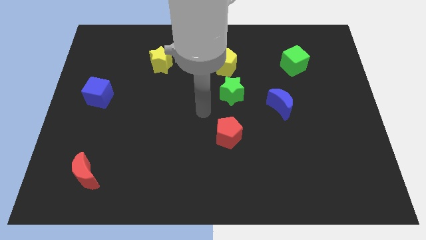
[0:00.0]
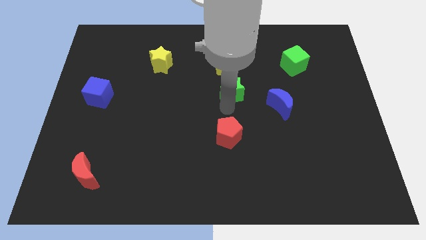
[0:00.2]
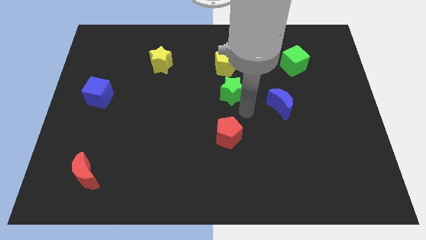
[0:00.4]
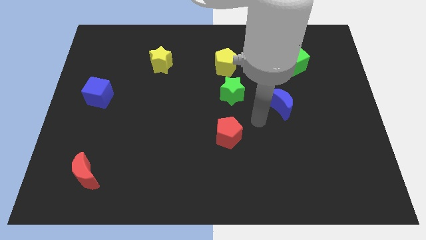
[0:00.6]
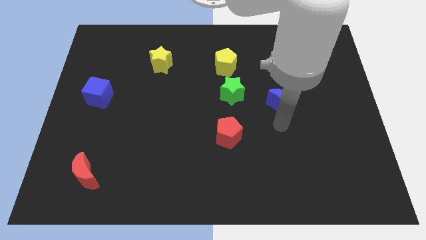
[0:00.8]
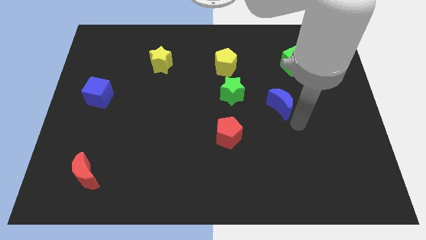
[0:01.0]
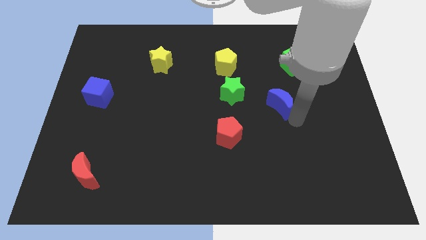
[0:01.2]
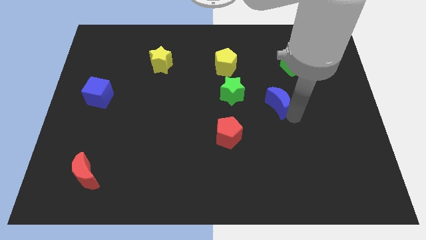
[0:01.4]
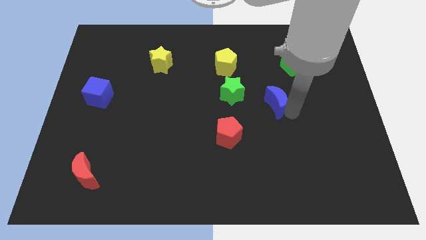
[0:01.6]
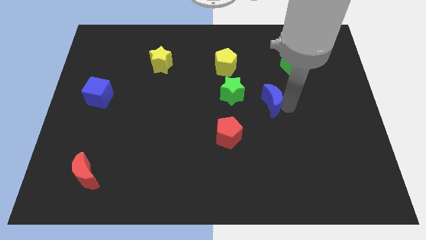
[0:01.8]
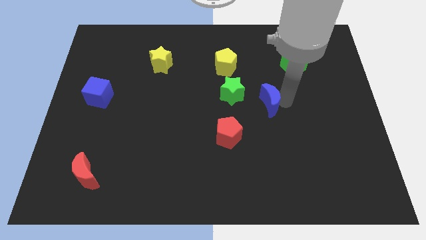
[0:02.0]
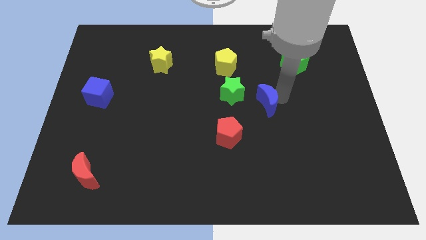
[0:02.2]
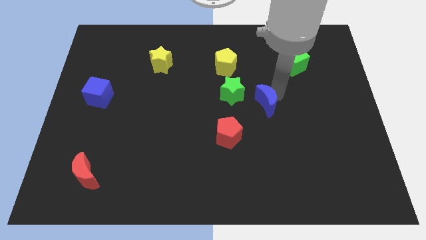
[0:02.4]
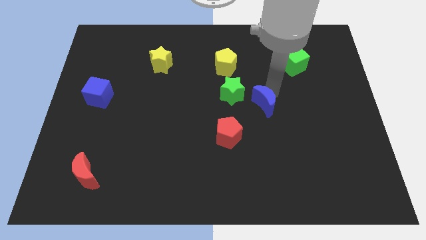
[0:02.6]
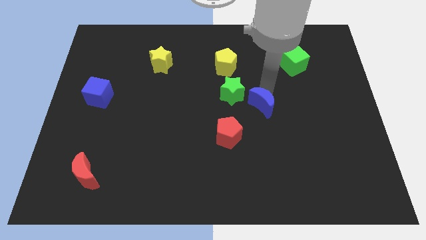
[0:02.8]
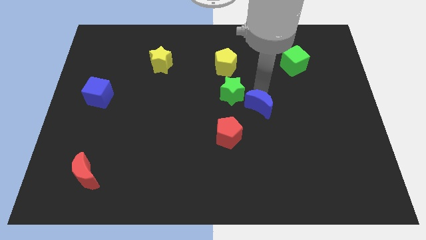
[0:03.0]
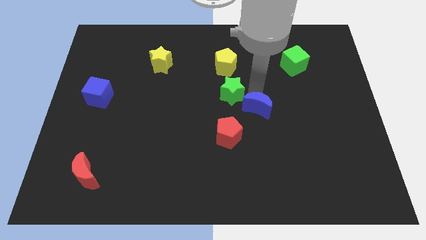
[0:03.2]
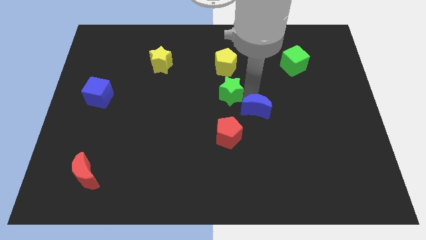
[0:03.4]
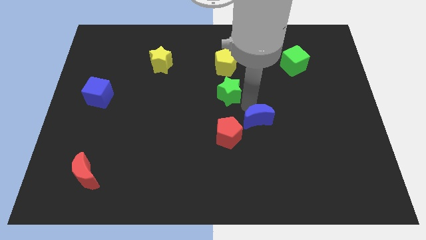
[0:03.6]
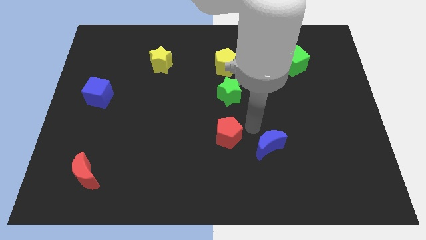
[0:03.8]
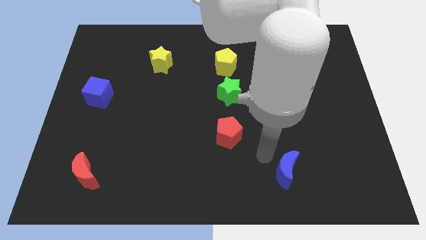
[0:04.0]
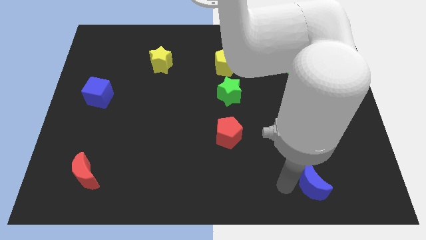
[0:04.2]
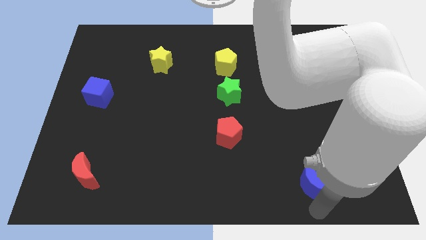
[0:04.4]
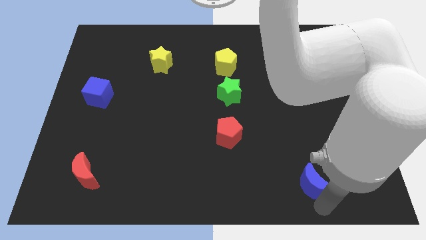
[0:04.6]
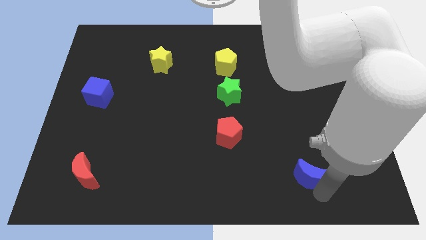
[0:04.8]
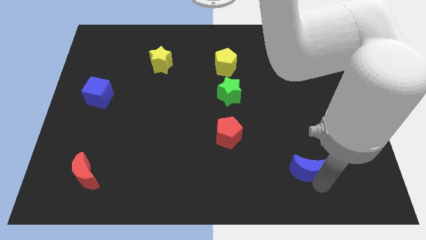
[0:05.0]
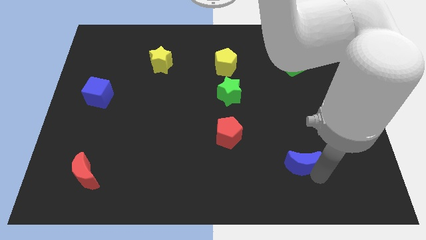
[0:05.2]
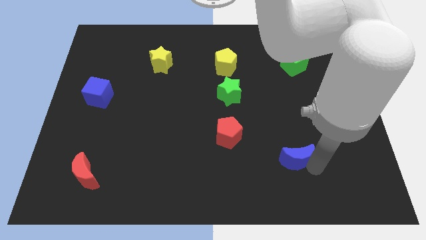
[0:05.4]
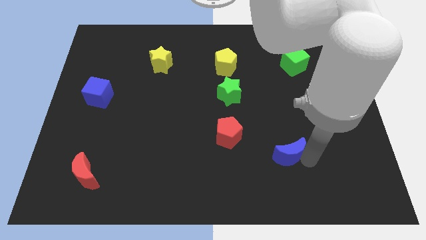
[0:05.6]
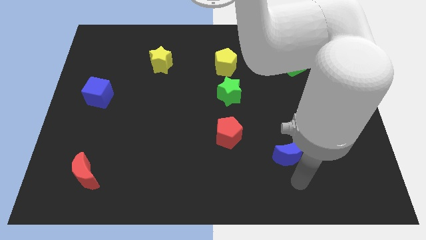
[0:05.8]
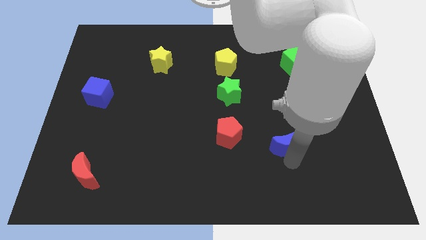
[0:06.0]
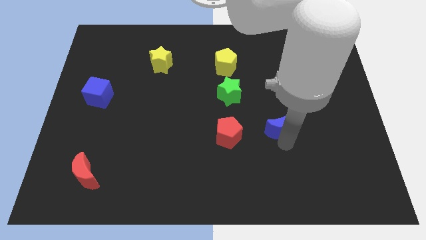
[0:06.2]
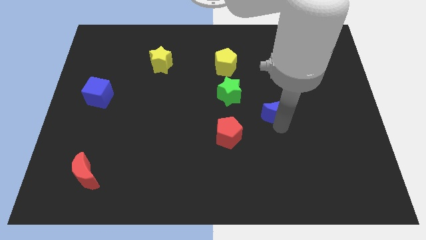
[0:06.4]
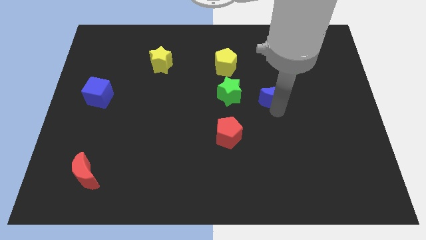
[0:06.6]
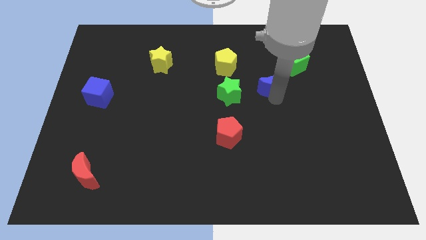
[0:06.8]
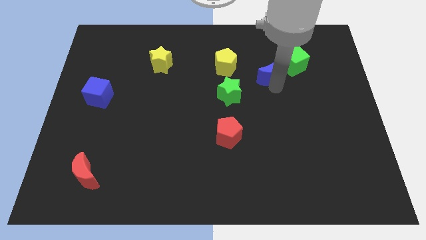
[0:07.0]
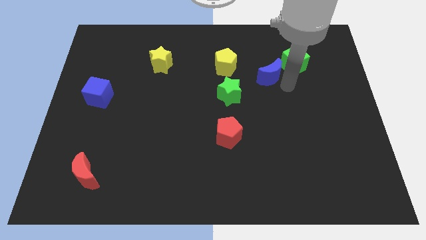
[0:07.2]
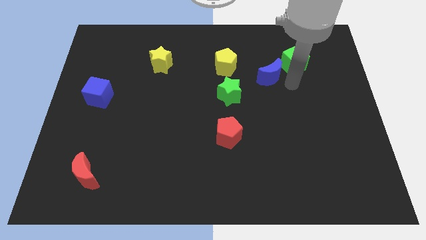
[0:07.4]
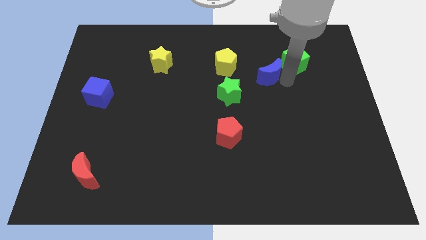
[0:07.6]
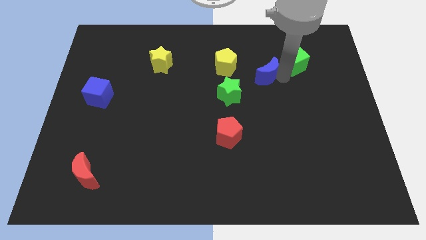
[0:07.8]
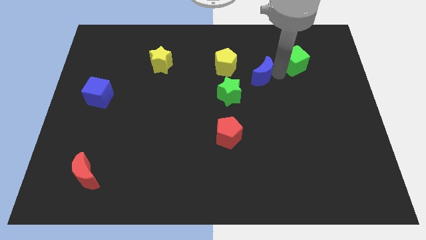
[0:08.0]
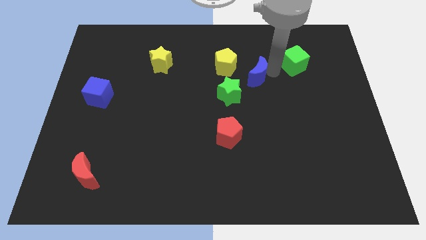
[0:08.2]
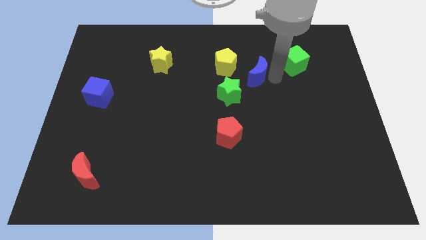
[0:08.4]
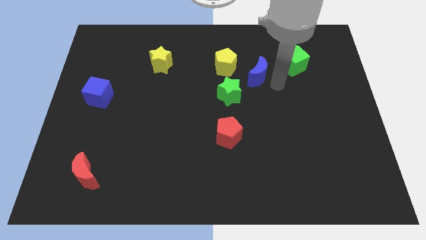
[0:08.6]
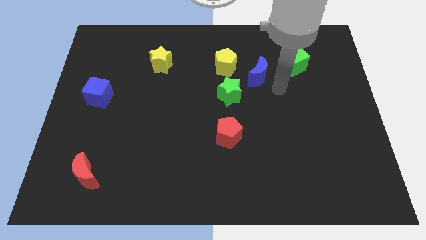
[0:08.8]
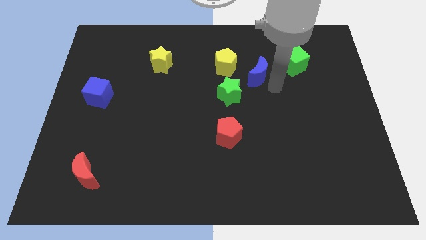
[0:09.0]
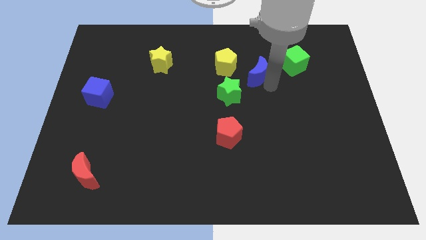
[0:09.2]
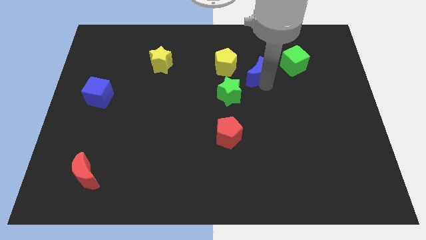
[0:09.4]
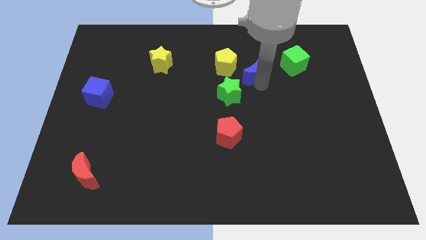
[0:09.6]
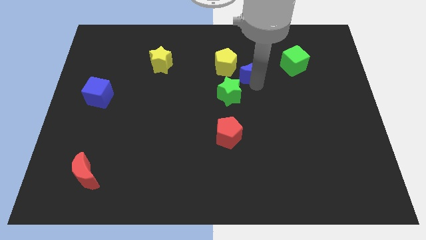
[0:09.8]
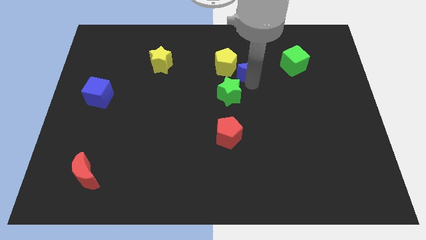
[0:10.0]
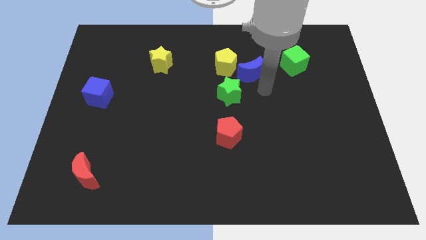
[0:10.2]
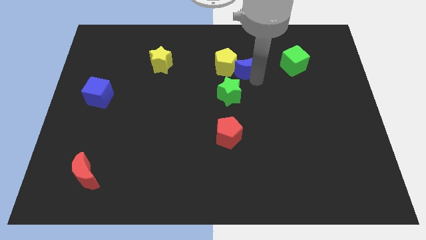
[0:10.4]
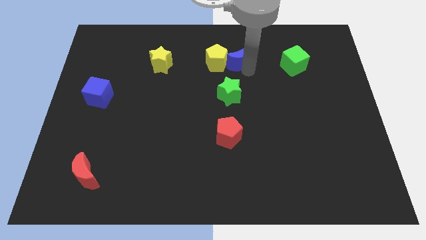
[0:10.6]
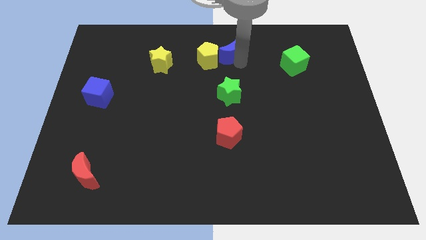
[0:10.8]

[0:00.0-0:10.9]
put the blue moon to the top

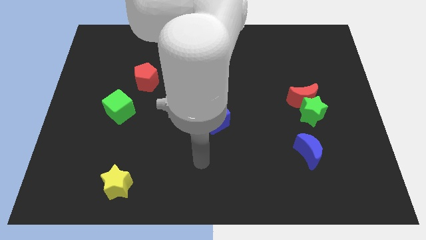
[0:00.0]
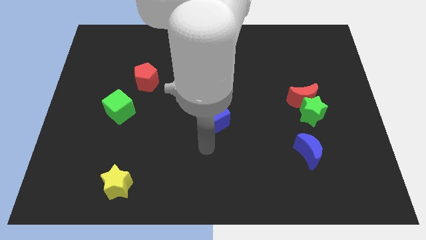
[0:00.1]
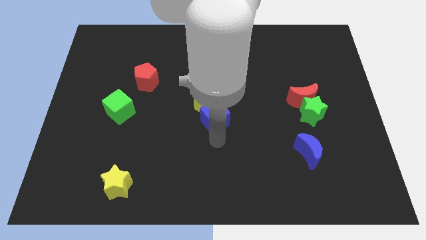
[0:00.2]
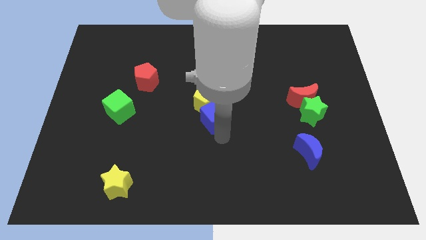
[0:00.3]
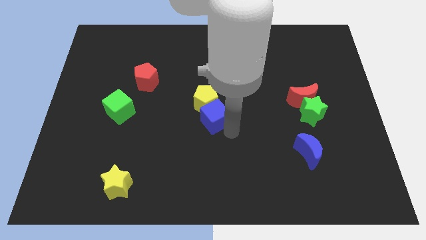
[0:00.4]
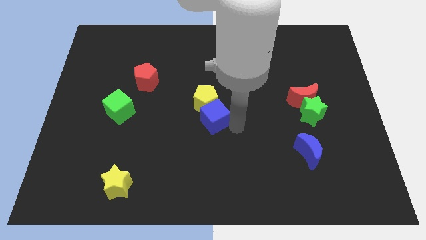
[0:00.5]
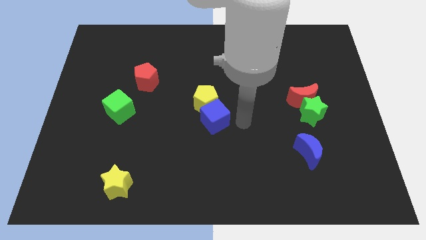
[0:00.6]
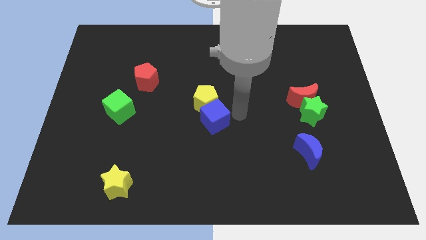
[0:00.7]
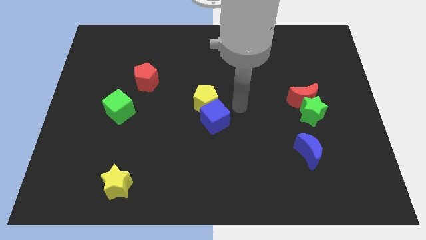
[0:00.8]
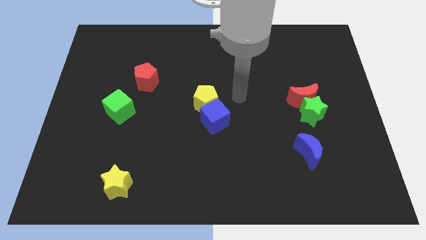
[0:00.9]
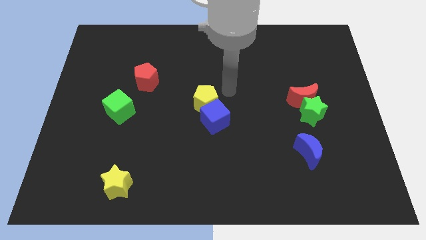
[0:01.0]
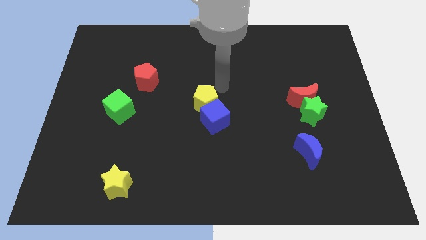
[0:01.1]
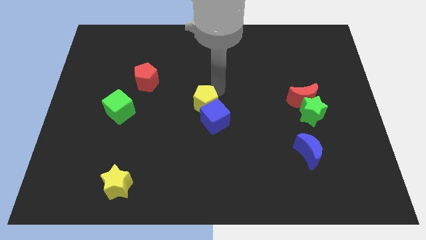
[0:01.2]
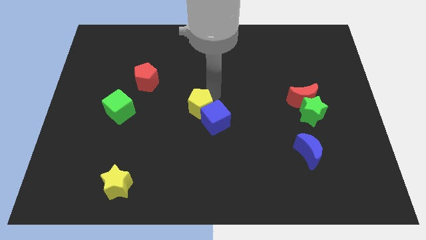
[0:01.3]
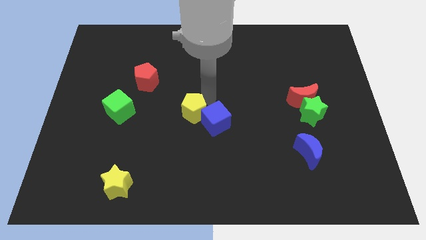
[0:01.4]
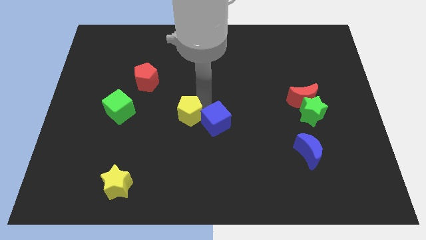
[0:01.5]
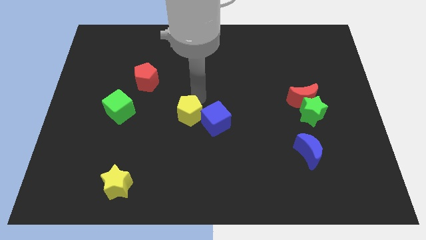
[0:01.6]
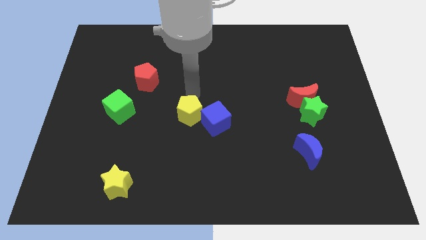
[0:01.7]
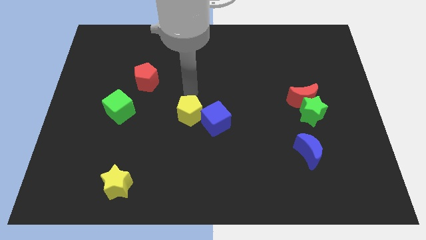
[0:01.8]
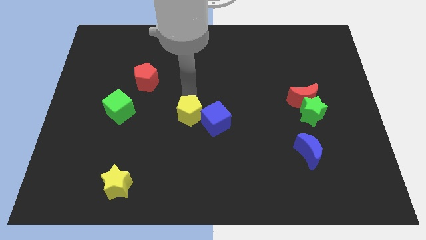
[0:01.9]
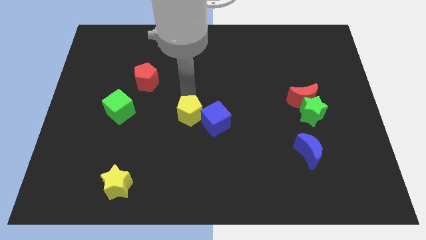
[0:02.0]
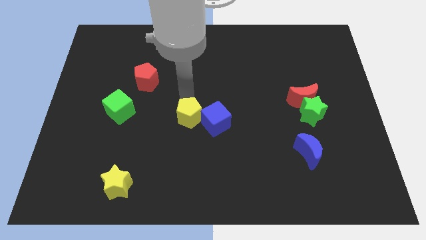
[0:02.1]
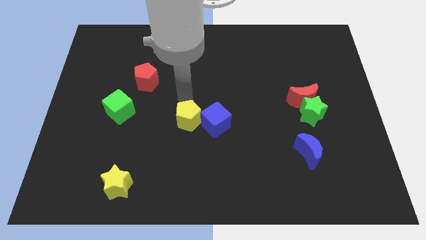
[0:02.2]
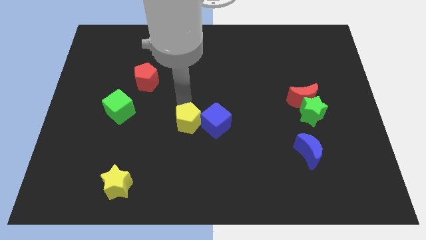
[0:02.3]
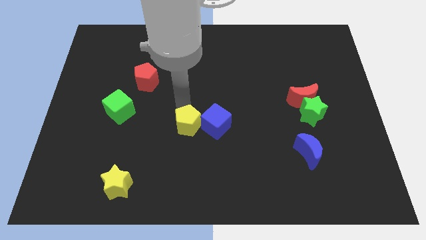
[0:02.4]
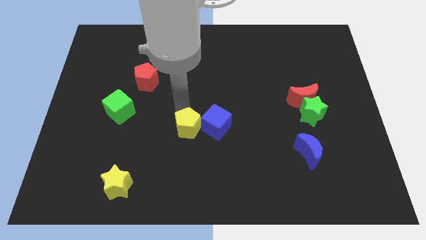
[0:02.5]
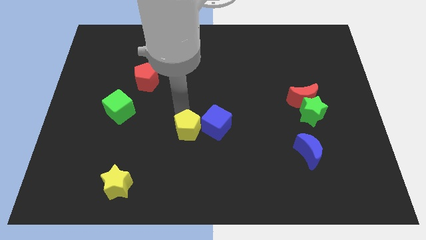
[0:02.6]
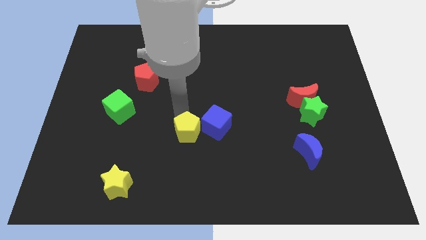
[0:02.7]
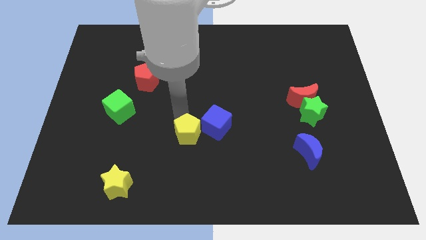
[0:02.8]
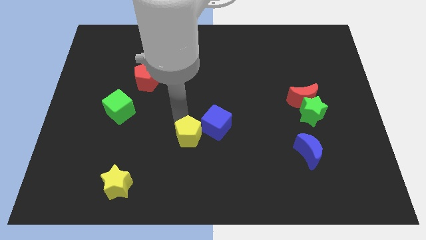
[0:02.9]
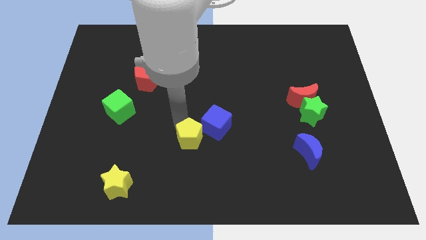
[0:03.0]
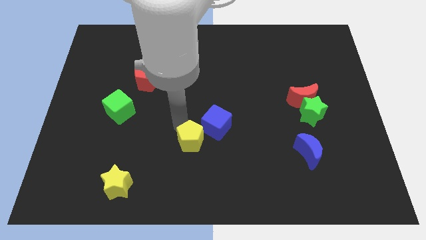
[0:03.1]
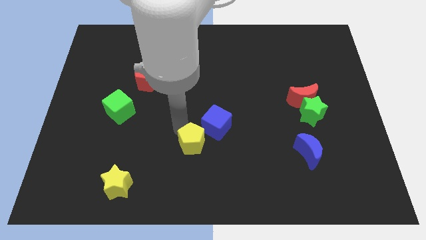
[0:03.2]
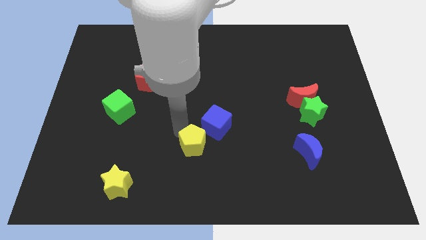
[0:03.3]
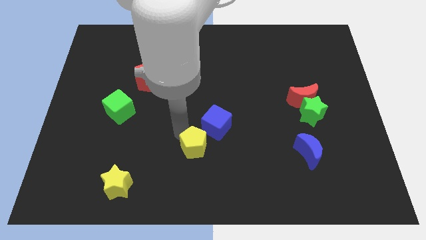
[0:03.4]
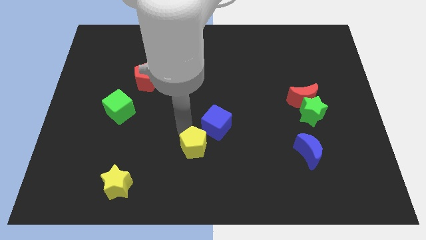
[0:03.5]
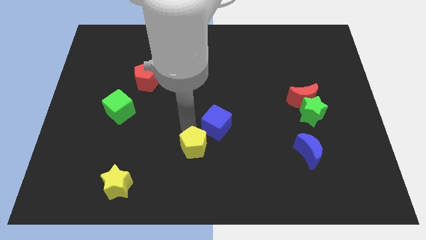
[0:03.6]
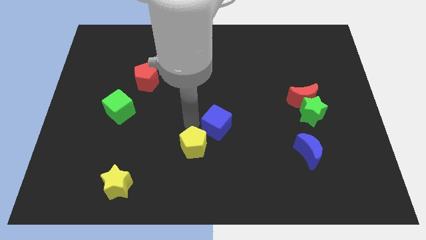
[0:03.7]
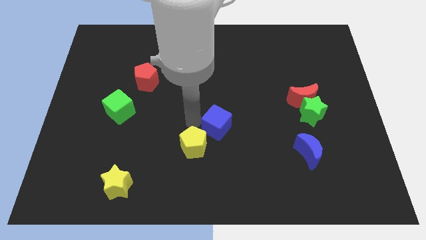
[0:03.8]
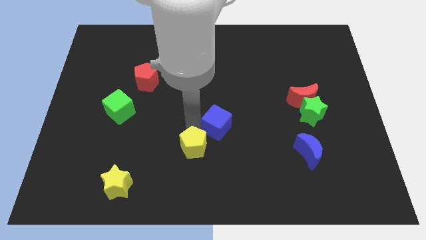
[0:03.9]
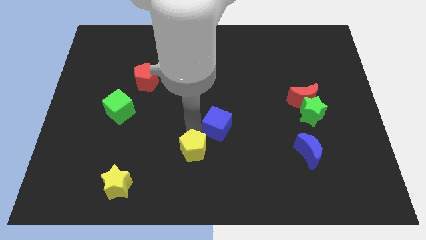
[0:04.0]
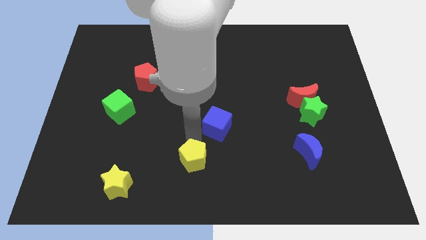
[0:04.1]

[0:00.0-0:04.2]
slide the yellow pentagon to the bottom side
